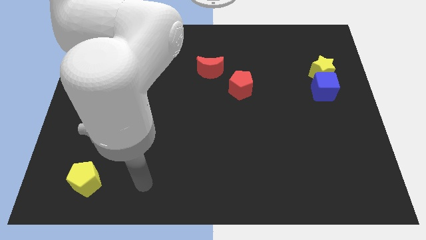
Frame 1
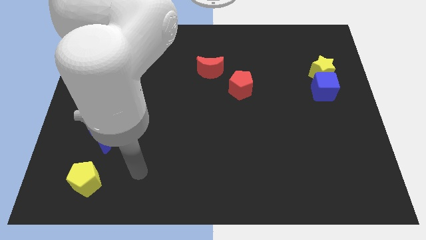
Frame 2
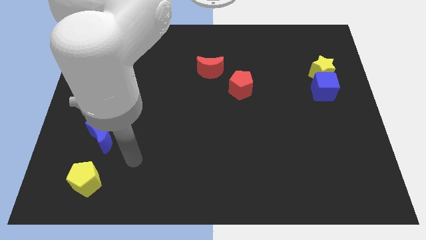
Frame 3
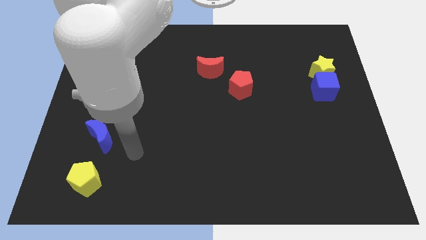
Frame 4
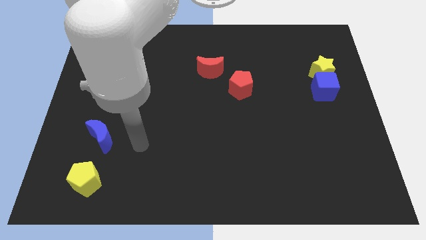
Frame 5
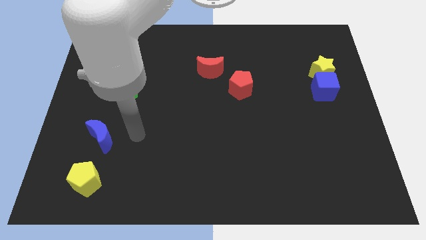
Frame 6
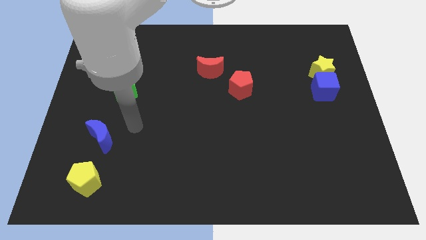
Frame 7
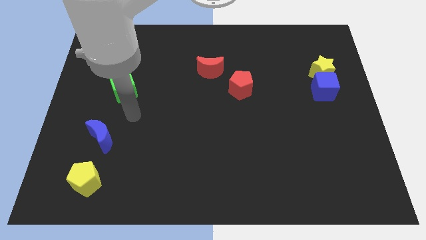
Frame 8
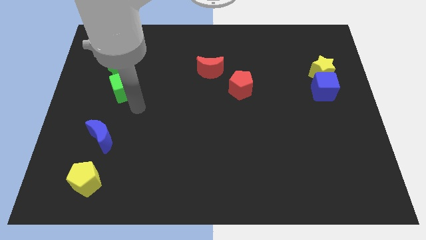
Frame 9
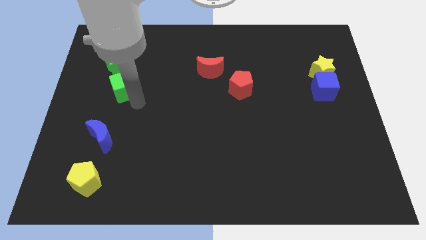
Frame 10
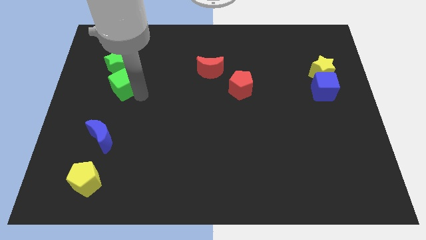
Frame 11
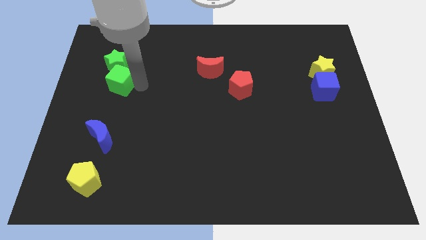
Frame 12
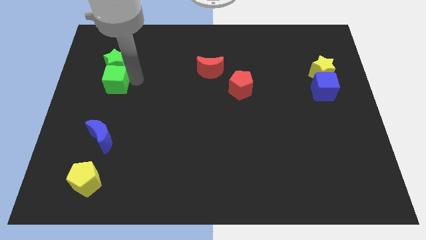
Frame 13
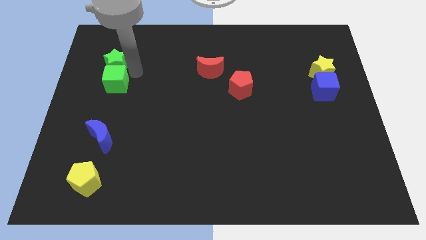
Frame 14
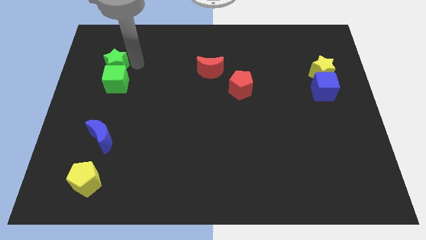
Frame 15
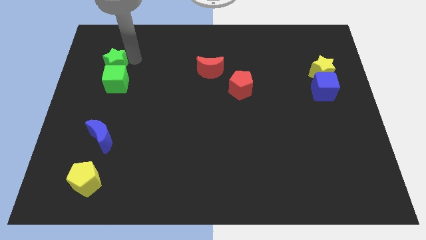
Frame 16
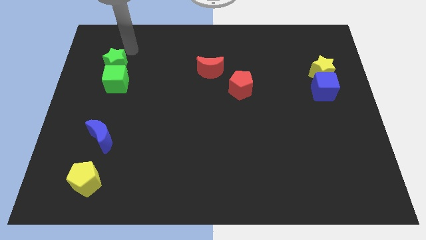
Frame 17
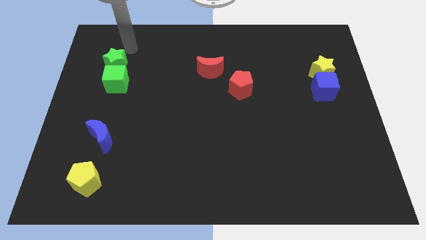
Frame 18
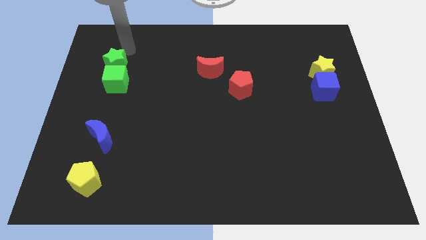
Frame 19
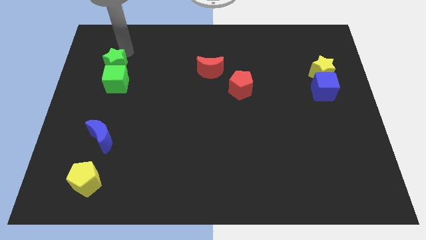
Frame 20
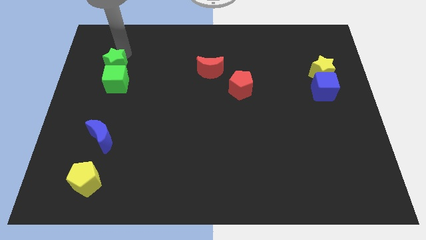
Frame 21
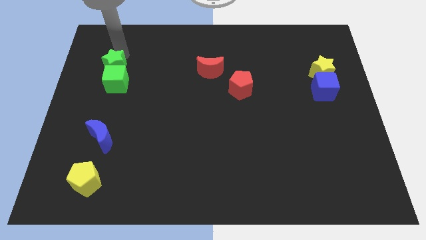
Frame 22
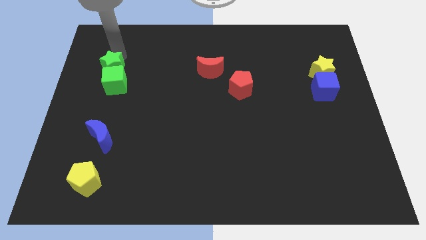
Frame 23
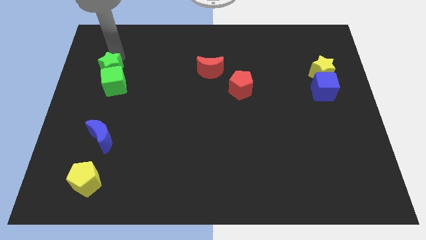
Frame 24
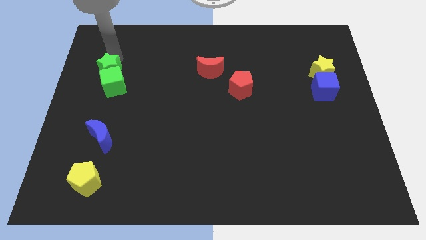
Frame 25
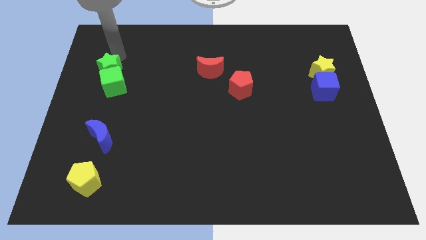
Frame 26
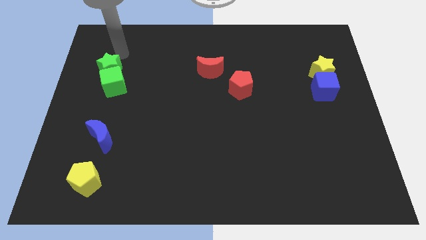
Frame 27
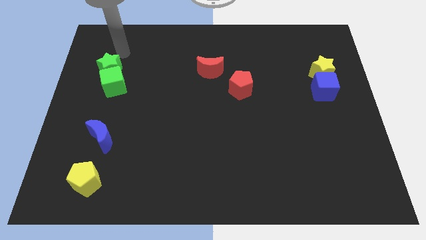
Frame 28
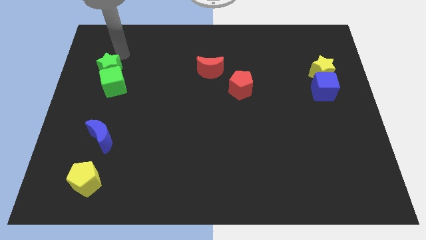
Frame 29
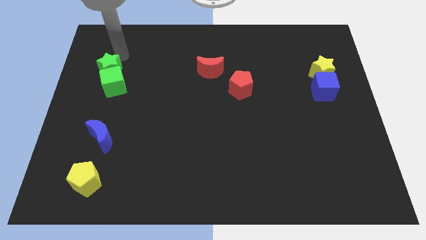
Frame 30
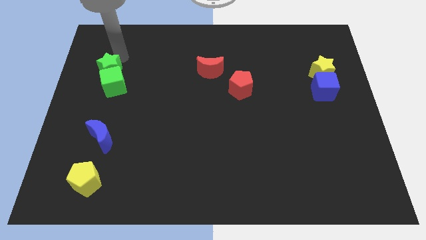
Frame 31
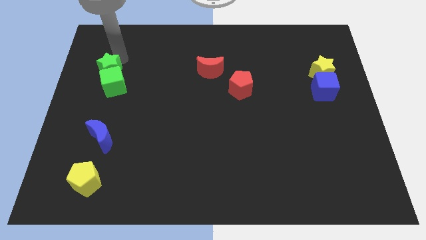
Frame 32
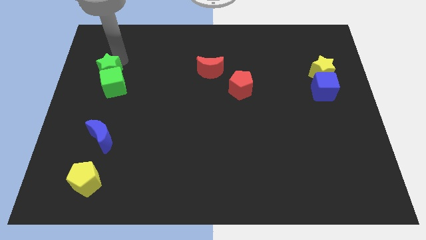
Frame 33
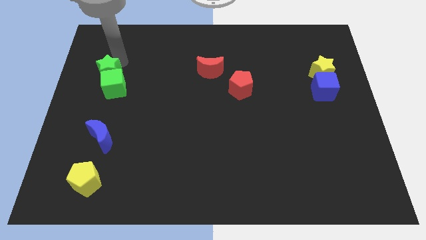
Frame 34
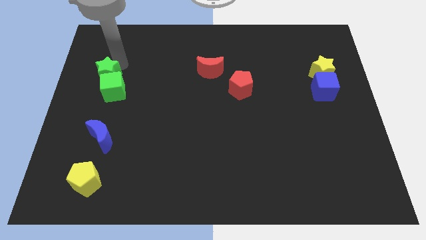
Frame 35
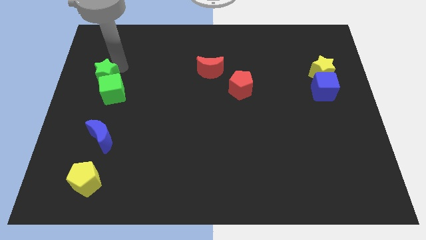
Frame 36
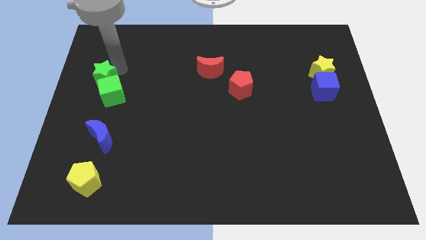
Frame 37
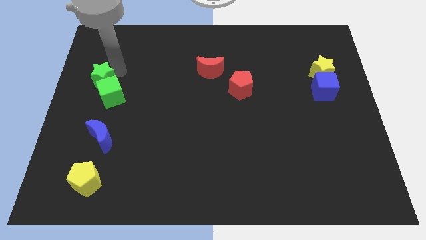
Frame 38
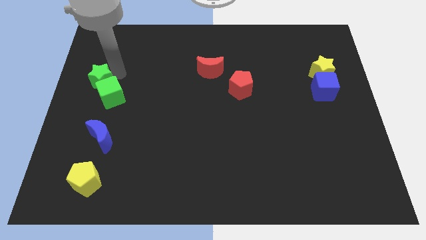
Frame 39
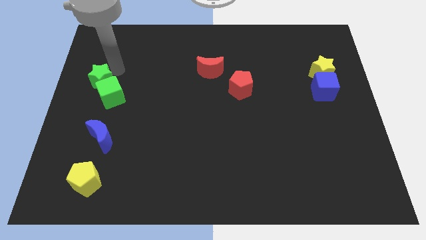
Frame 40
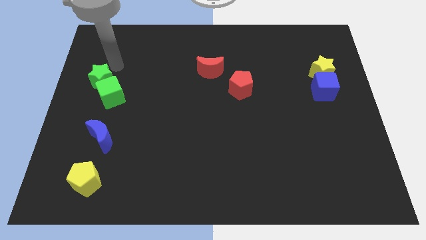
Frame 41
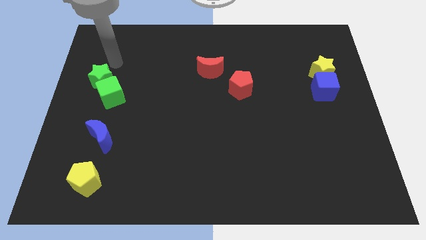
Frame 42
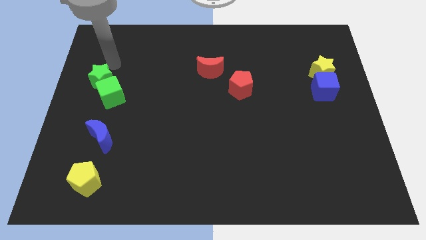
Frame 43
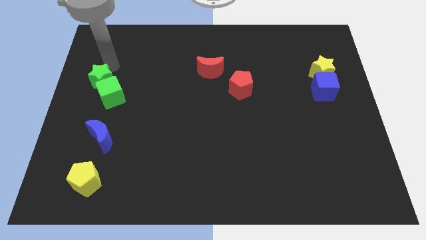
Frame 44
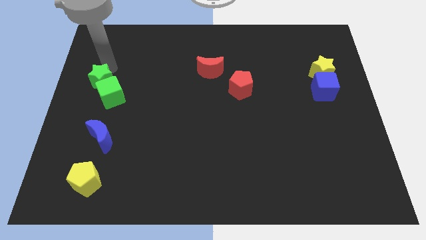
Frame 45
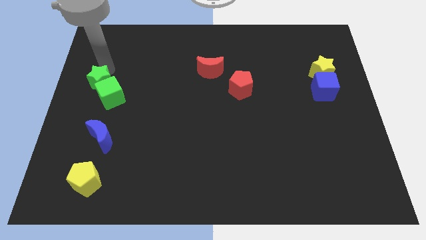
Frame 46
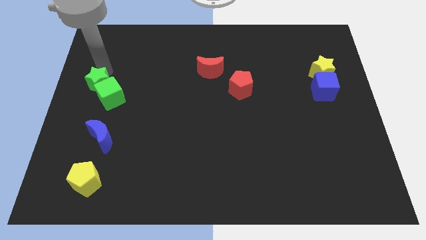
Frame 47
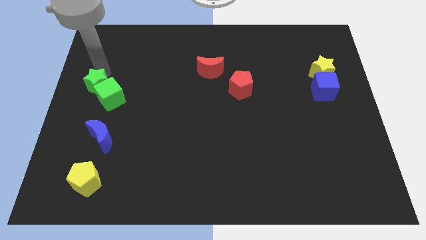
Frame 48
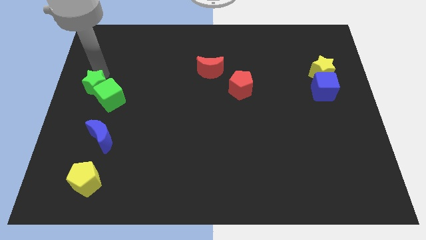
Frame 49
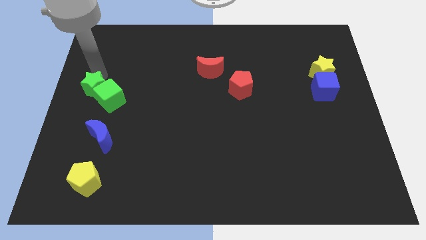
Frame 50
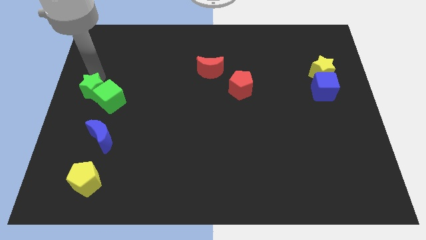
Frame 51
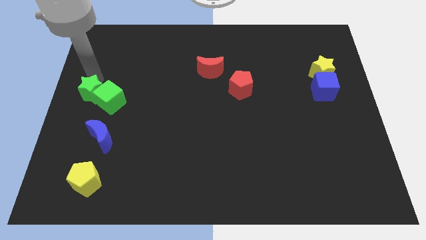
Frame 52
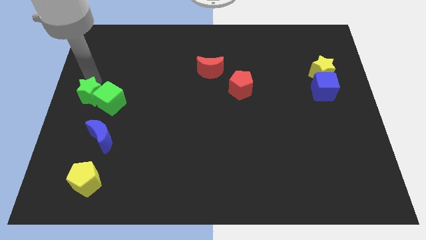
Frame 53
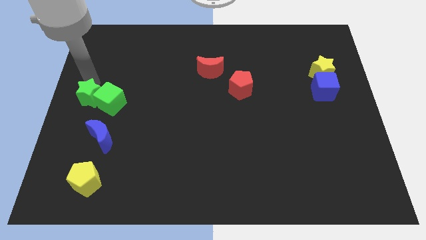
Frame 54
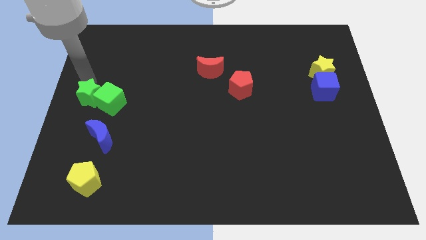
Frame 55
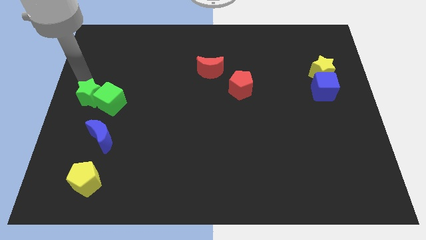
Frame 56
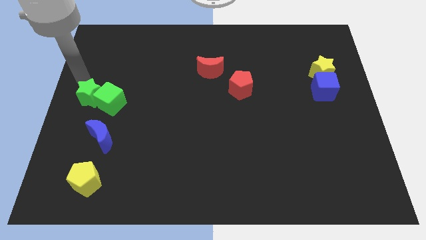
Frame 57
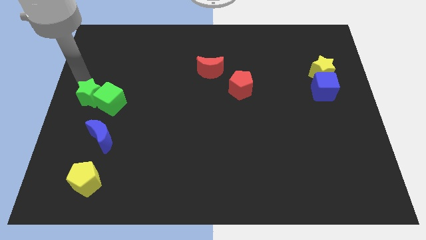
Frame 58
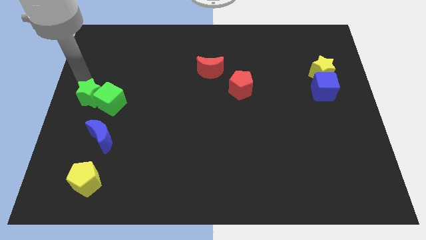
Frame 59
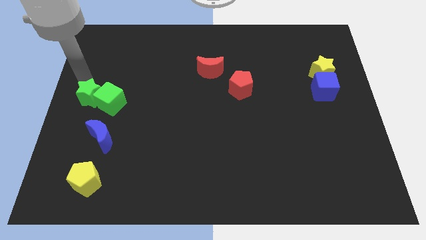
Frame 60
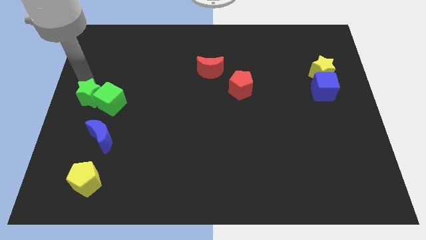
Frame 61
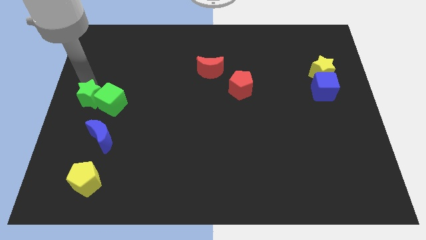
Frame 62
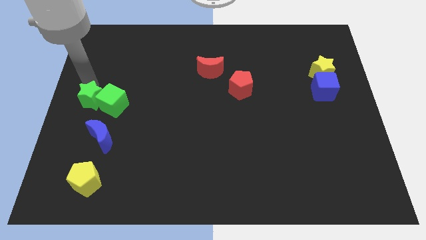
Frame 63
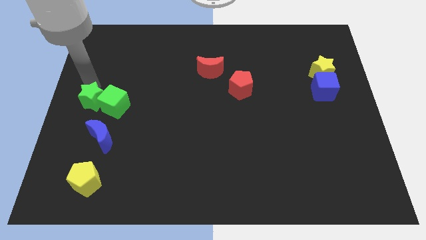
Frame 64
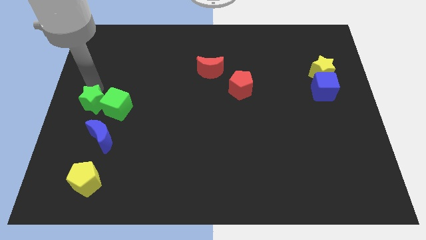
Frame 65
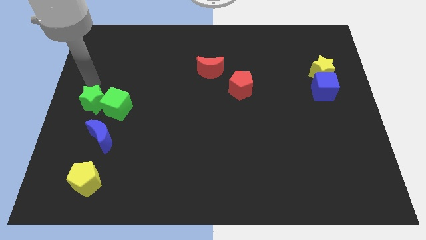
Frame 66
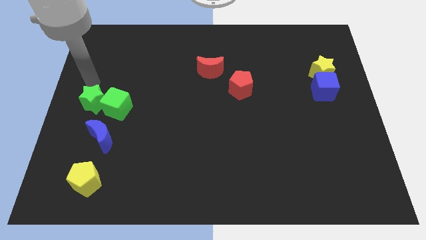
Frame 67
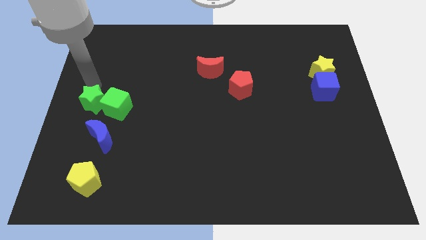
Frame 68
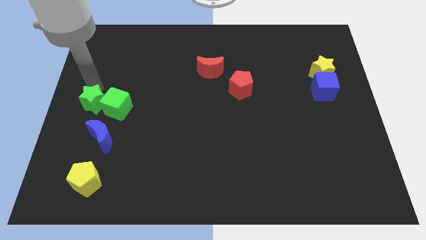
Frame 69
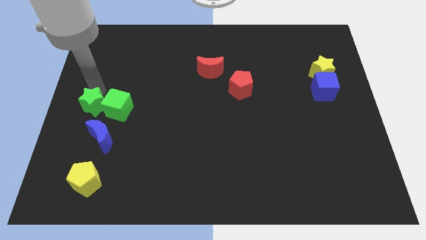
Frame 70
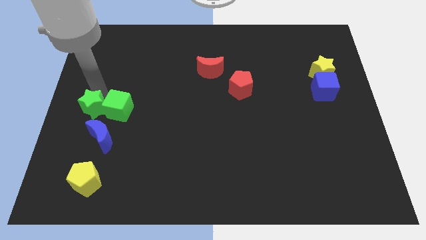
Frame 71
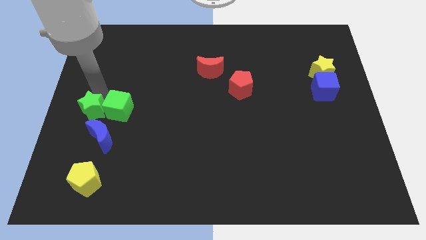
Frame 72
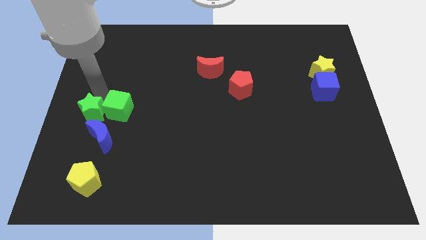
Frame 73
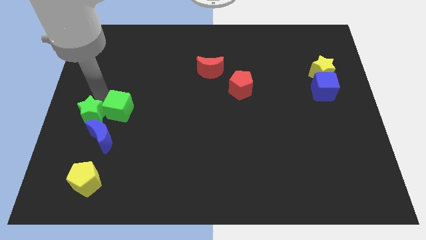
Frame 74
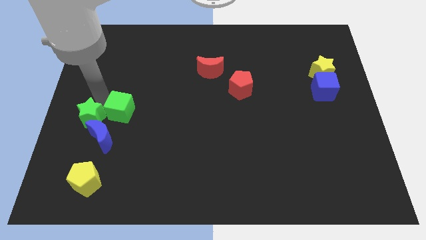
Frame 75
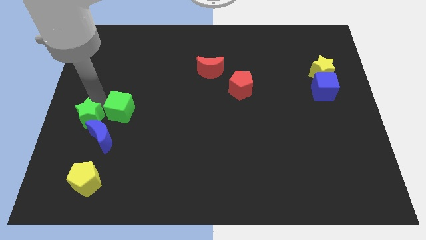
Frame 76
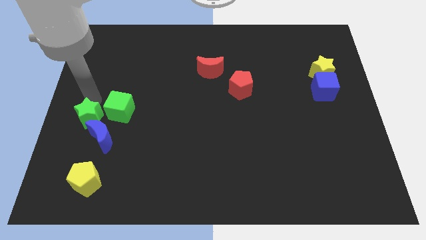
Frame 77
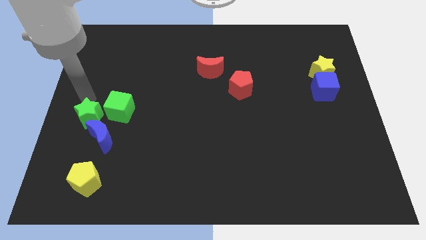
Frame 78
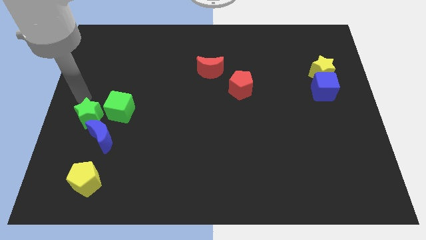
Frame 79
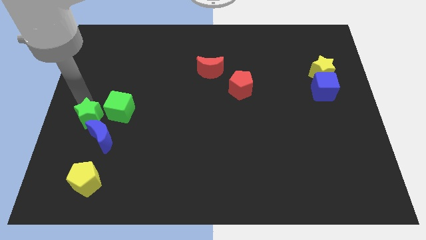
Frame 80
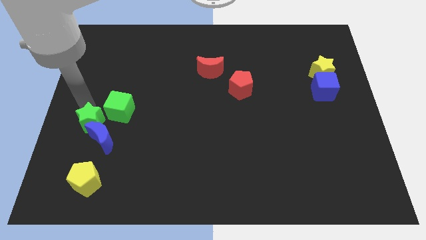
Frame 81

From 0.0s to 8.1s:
slide the green star to the blue moon
